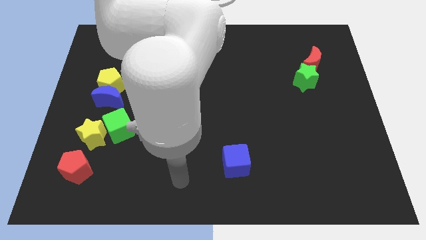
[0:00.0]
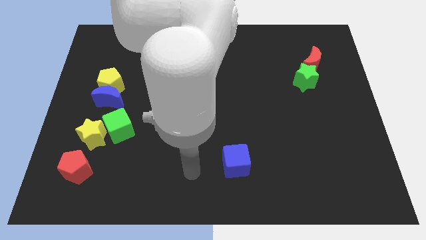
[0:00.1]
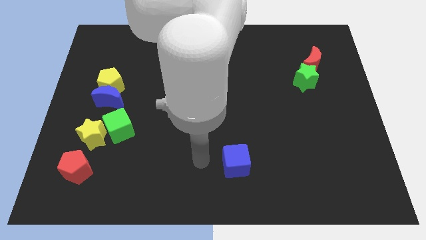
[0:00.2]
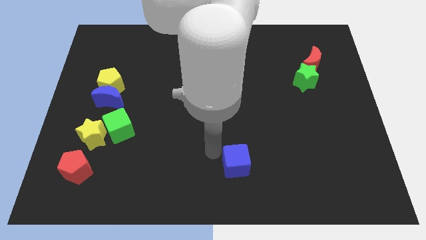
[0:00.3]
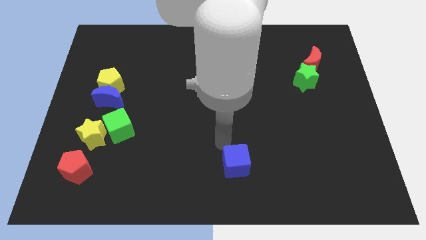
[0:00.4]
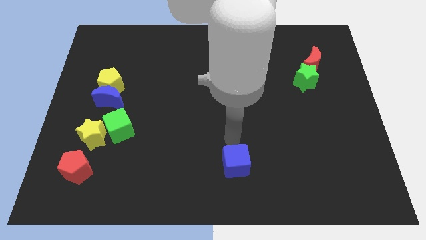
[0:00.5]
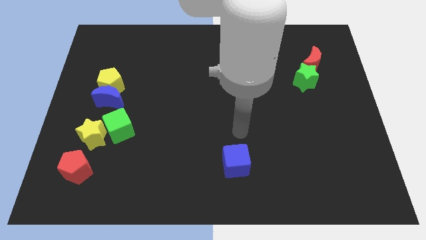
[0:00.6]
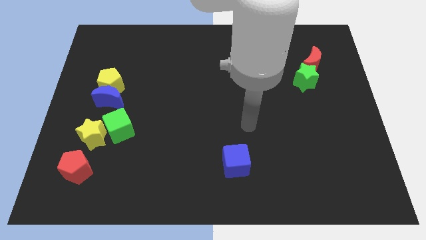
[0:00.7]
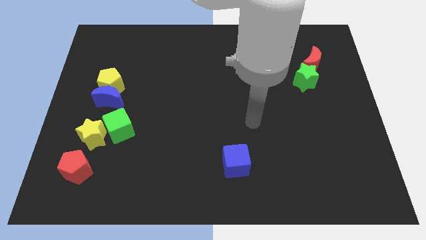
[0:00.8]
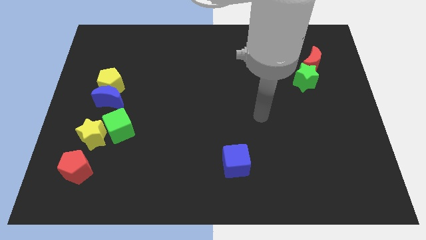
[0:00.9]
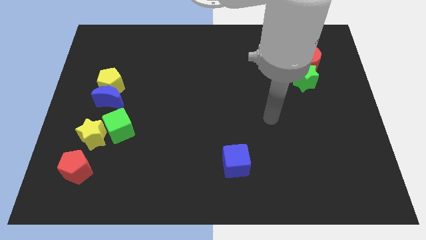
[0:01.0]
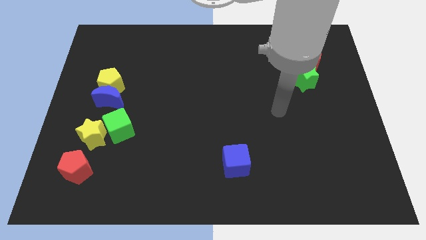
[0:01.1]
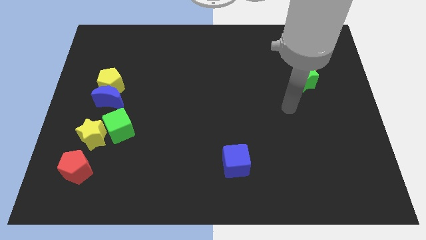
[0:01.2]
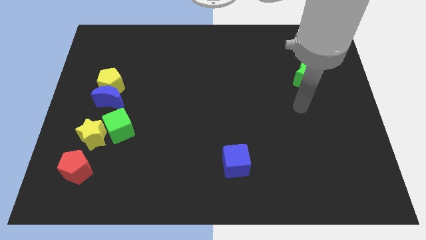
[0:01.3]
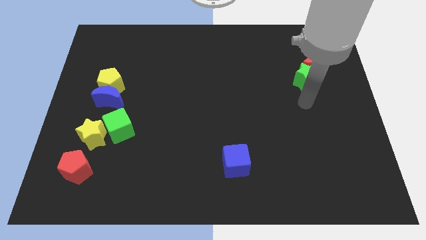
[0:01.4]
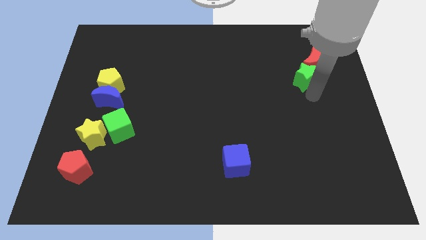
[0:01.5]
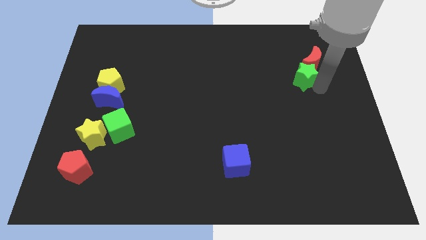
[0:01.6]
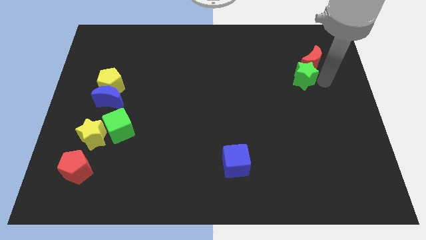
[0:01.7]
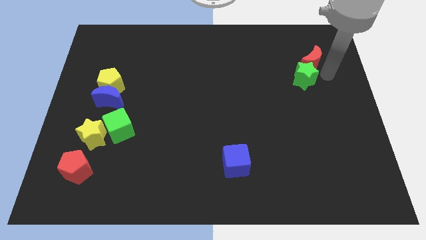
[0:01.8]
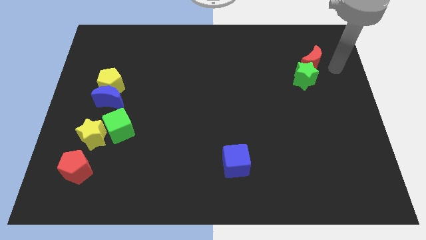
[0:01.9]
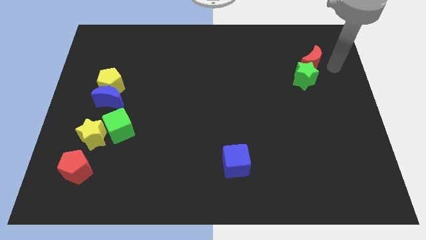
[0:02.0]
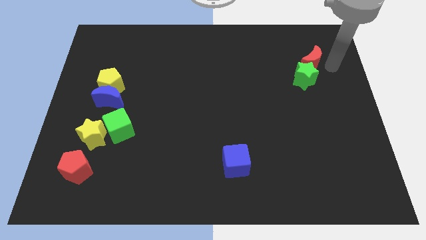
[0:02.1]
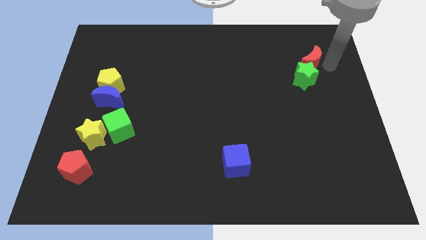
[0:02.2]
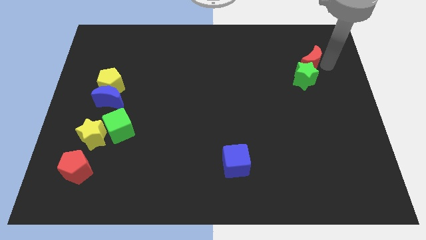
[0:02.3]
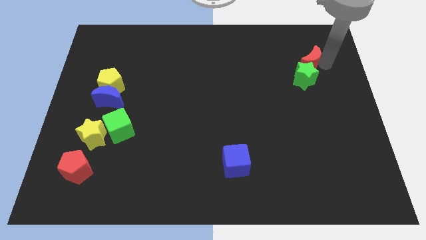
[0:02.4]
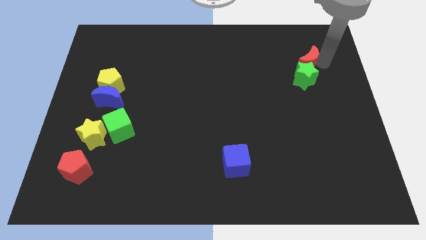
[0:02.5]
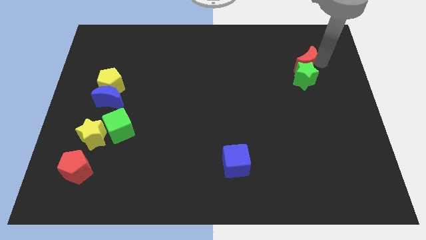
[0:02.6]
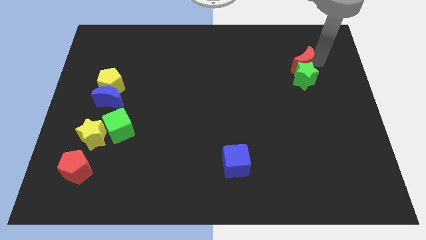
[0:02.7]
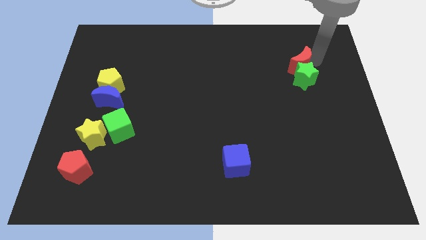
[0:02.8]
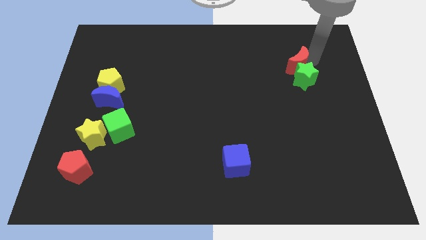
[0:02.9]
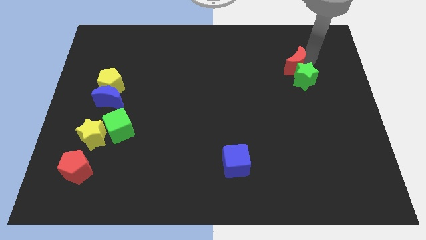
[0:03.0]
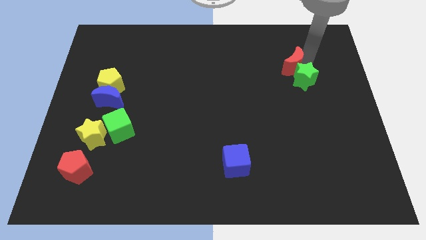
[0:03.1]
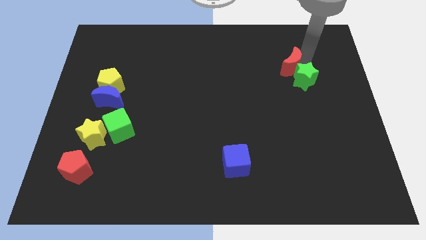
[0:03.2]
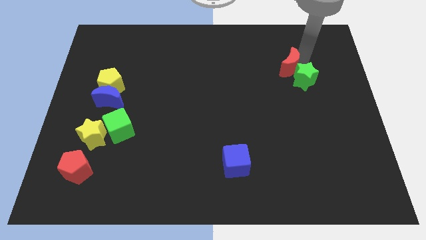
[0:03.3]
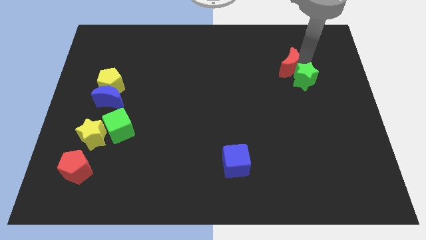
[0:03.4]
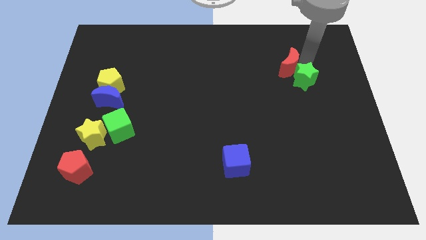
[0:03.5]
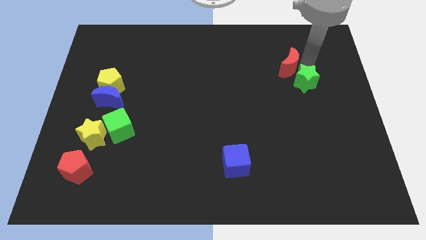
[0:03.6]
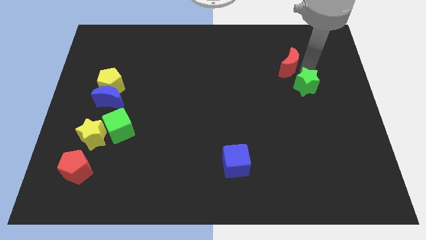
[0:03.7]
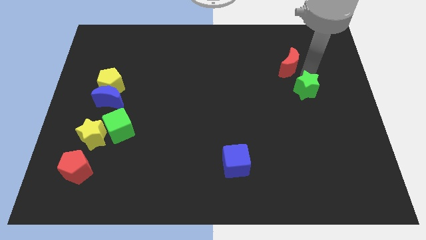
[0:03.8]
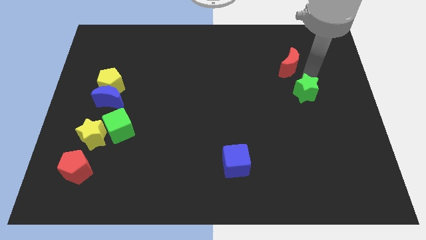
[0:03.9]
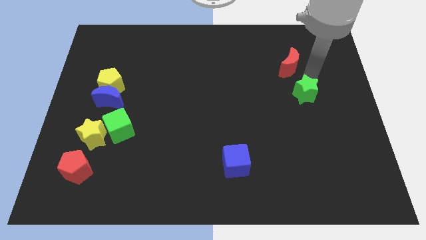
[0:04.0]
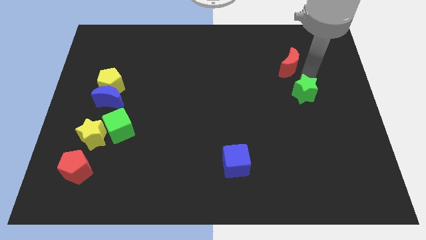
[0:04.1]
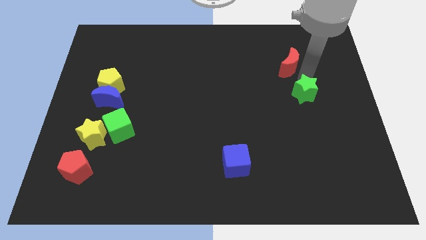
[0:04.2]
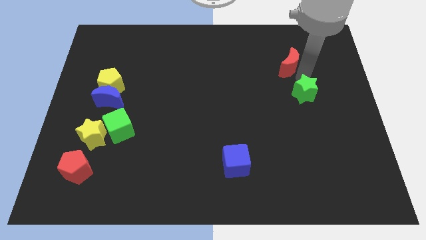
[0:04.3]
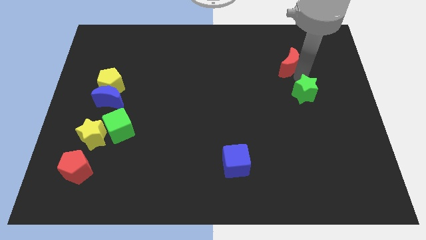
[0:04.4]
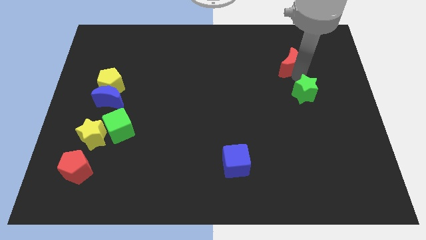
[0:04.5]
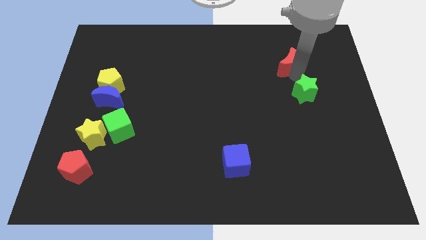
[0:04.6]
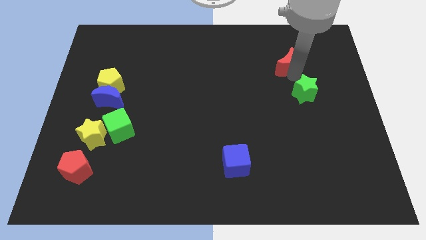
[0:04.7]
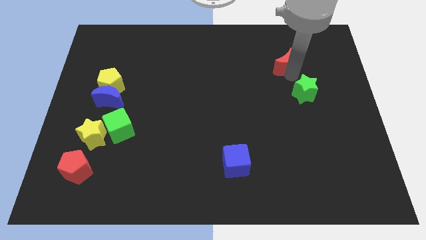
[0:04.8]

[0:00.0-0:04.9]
push the red moon a bit to the left

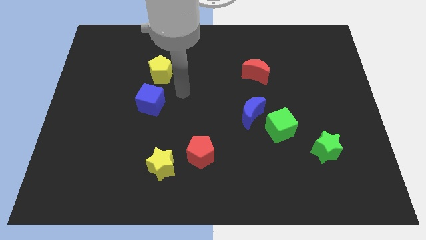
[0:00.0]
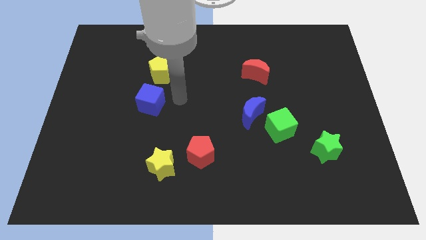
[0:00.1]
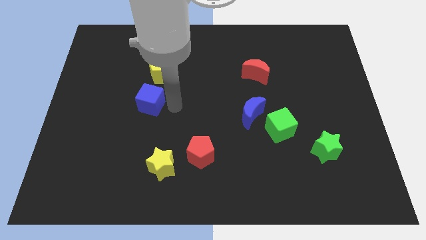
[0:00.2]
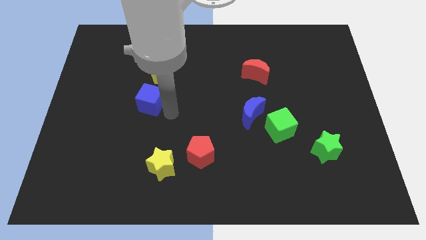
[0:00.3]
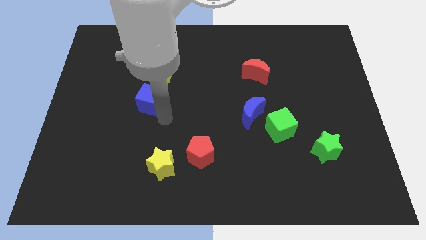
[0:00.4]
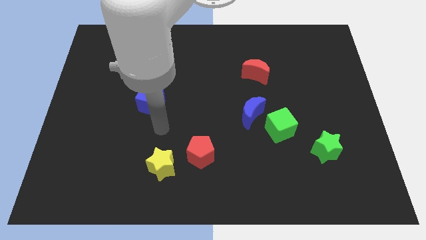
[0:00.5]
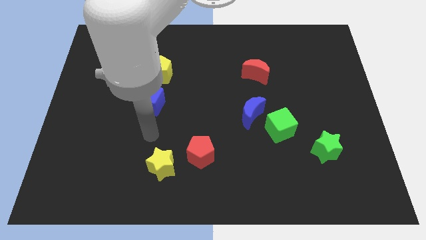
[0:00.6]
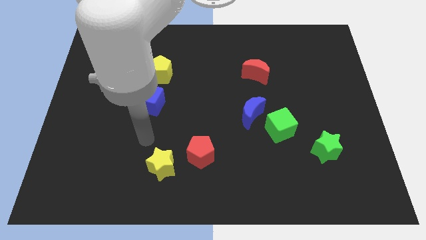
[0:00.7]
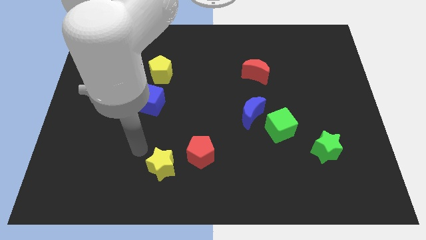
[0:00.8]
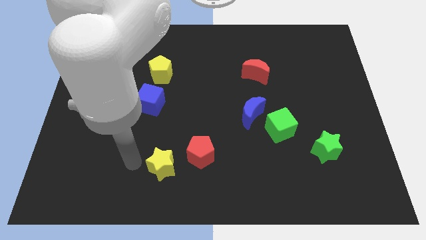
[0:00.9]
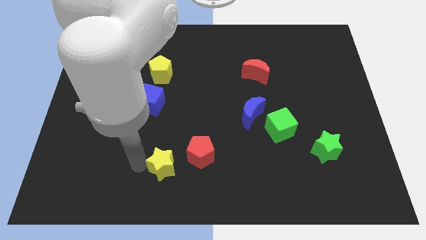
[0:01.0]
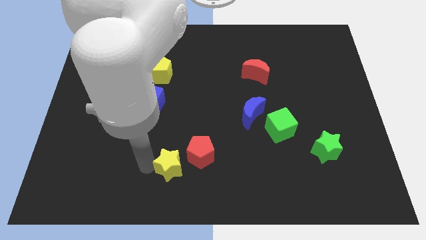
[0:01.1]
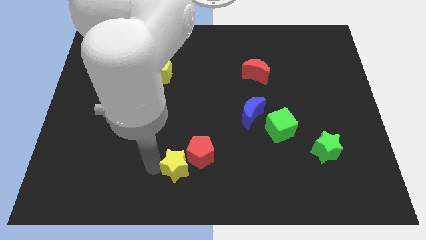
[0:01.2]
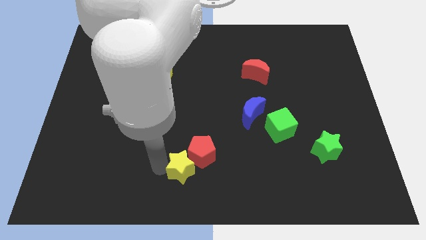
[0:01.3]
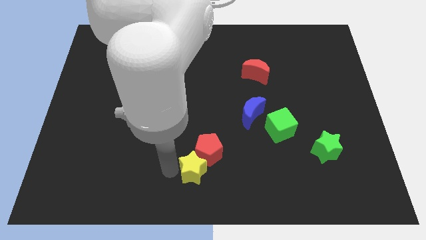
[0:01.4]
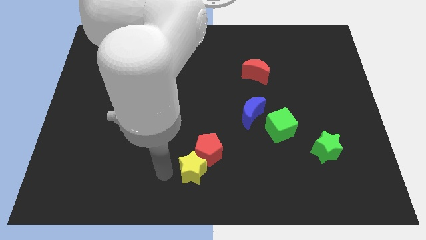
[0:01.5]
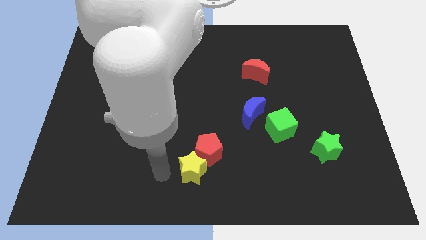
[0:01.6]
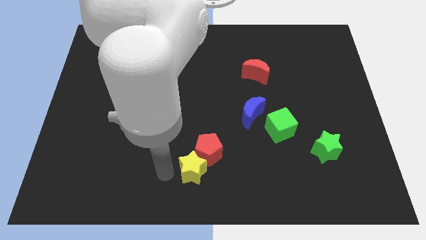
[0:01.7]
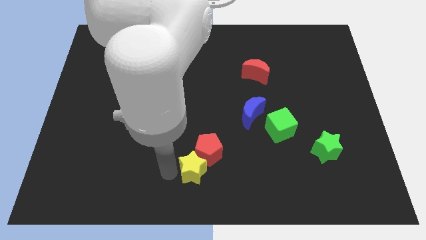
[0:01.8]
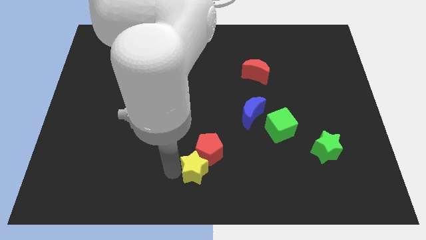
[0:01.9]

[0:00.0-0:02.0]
slide the yellow star right slightly

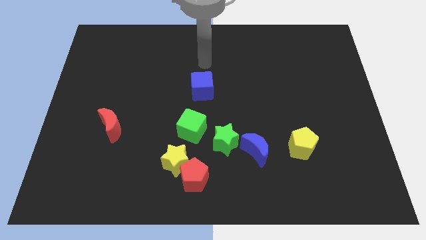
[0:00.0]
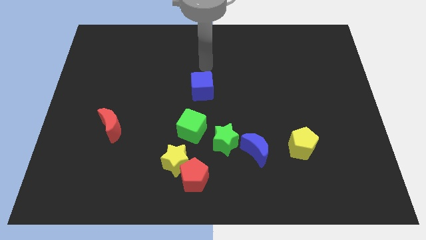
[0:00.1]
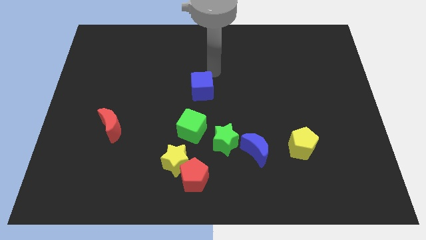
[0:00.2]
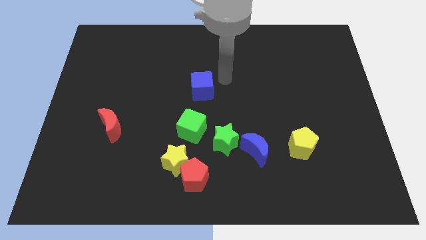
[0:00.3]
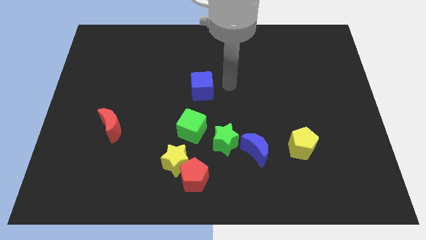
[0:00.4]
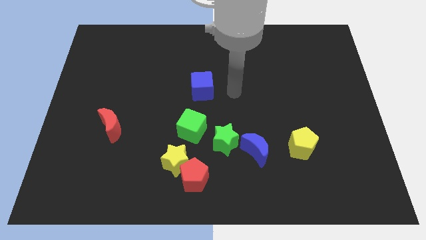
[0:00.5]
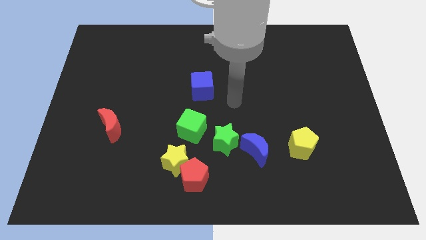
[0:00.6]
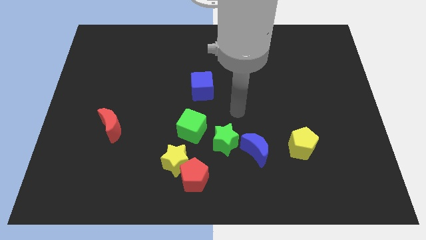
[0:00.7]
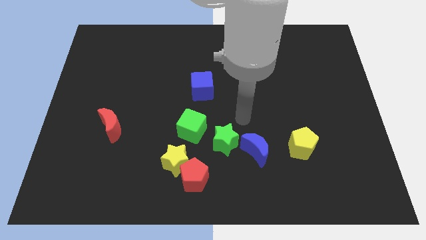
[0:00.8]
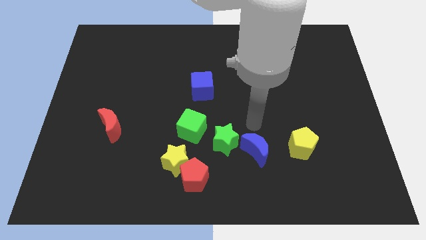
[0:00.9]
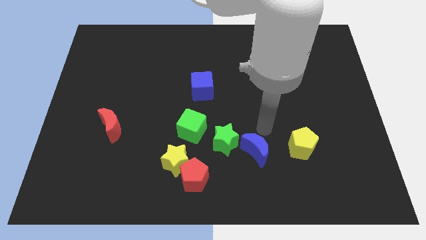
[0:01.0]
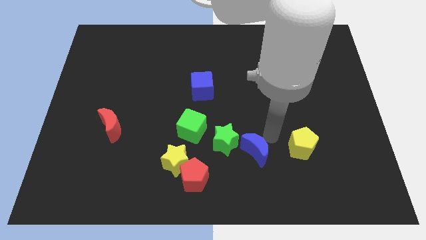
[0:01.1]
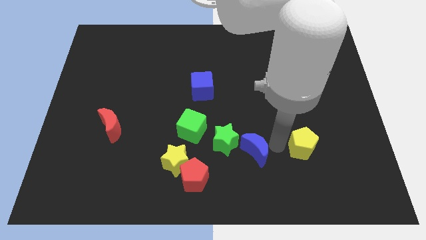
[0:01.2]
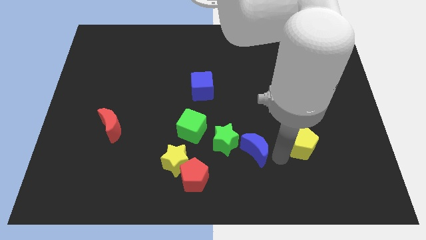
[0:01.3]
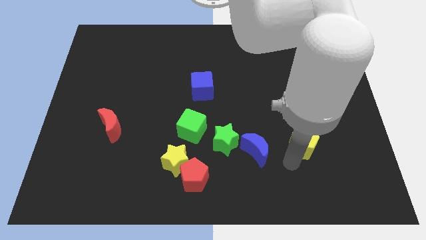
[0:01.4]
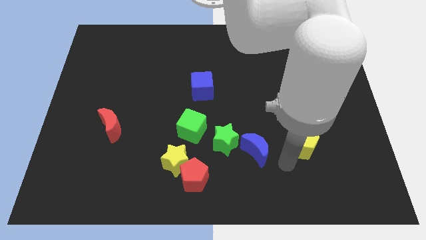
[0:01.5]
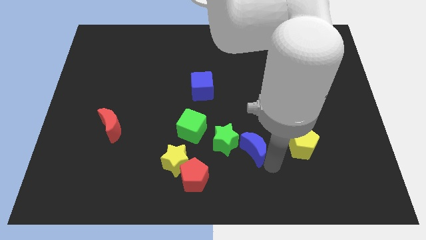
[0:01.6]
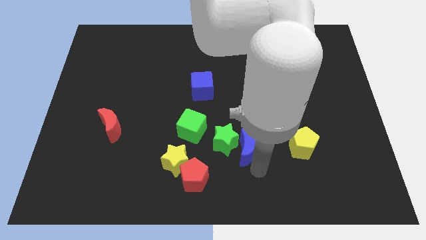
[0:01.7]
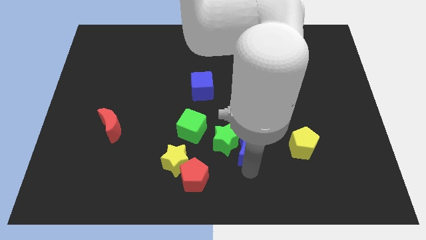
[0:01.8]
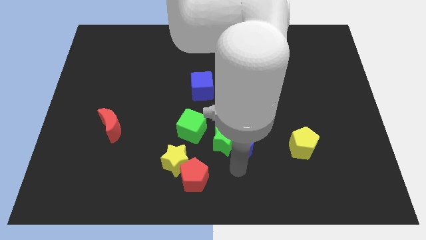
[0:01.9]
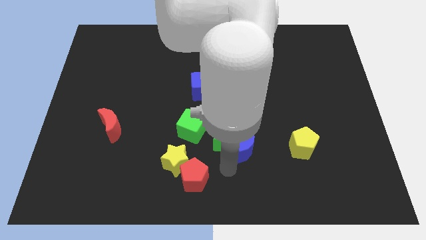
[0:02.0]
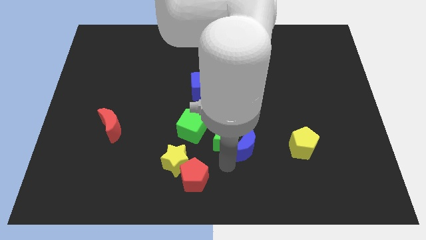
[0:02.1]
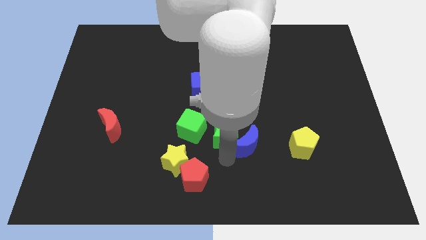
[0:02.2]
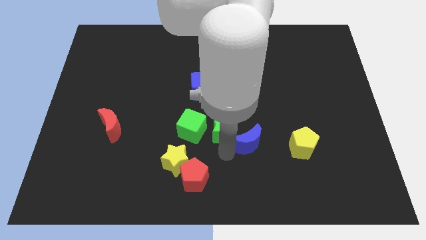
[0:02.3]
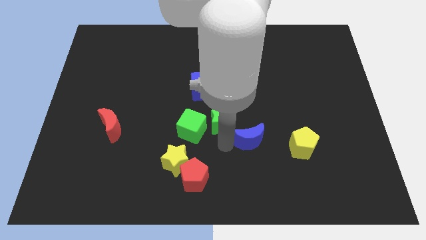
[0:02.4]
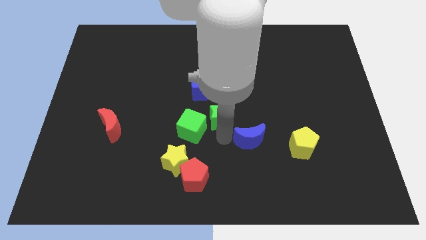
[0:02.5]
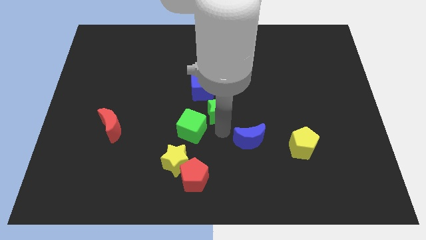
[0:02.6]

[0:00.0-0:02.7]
move the green star up a little bit
